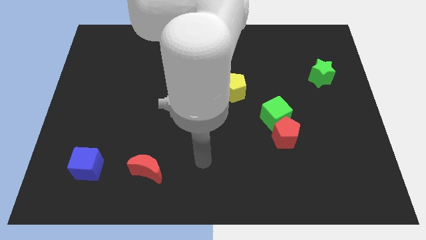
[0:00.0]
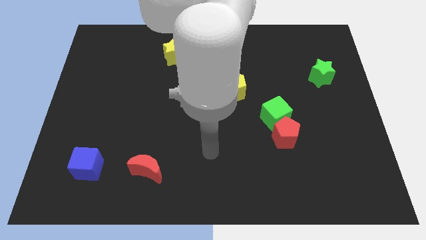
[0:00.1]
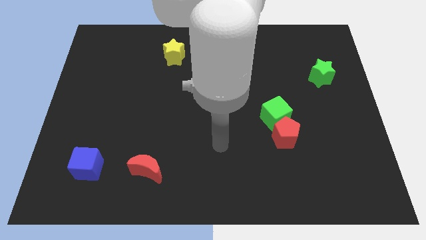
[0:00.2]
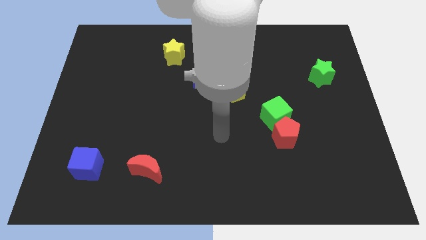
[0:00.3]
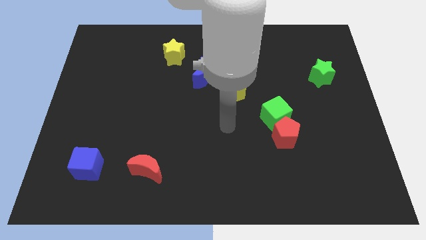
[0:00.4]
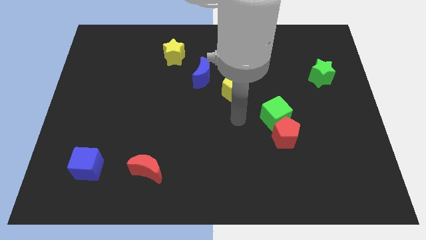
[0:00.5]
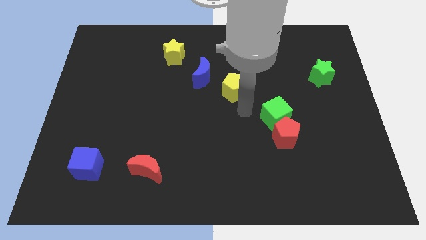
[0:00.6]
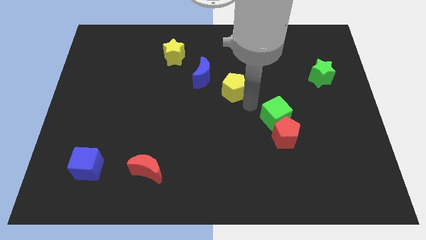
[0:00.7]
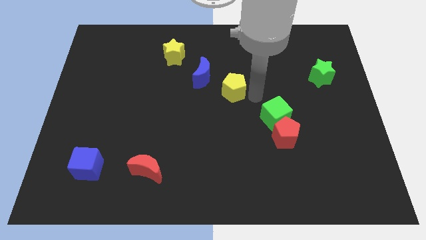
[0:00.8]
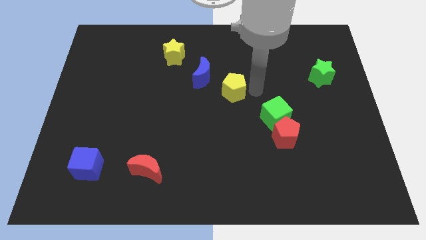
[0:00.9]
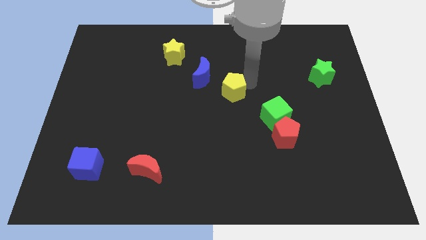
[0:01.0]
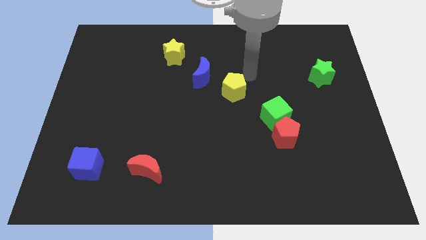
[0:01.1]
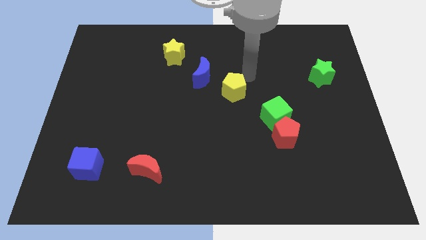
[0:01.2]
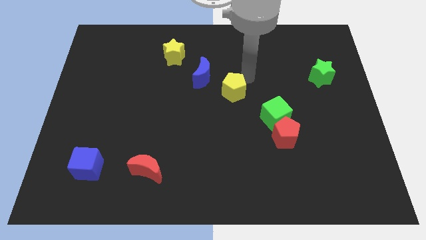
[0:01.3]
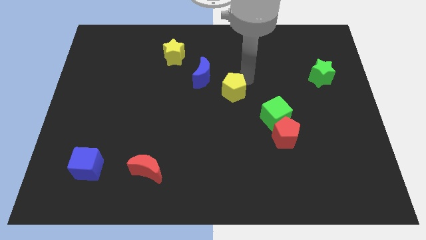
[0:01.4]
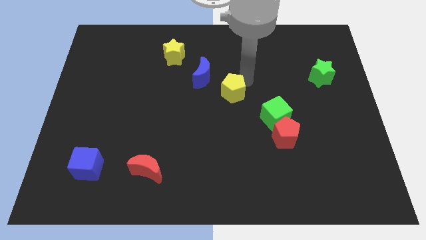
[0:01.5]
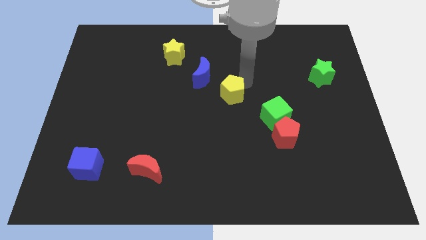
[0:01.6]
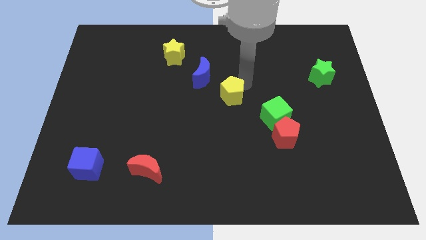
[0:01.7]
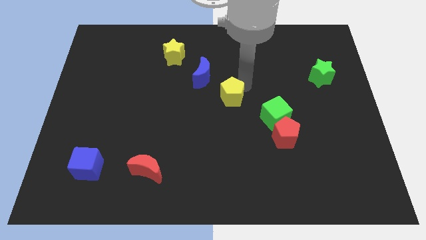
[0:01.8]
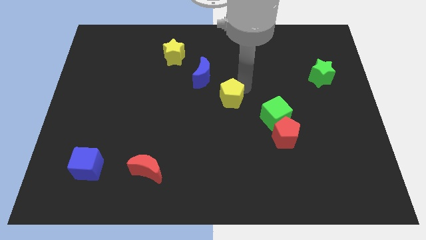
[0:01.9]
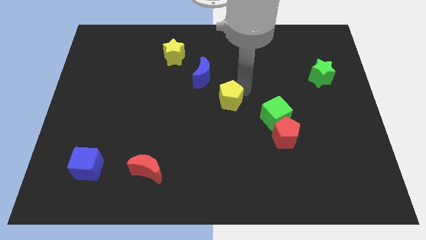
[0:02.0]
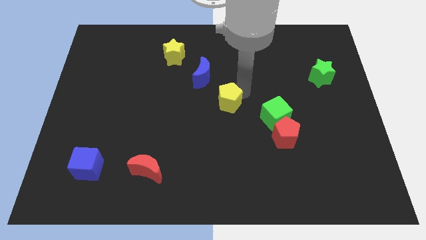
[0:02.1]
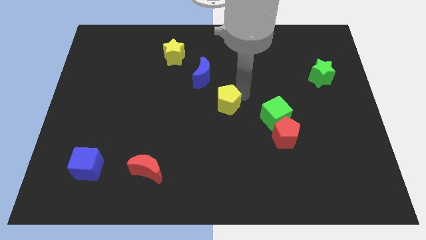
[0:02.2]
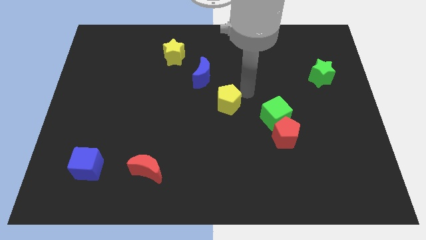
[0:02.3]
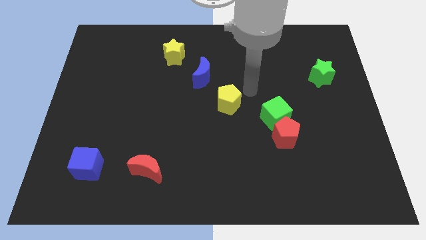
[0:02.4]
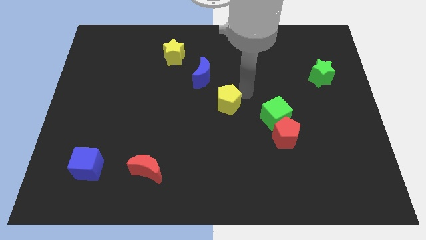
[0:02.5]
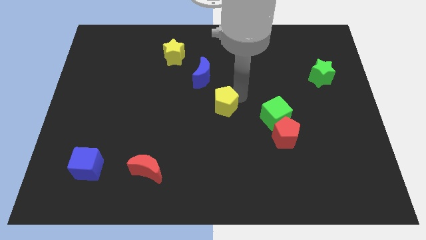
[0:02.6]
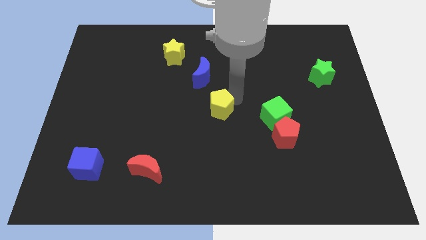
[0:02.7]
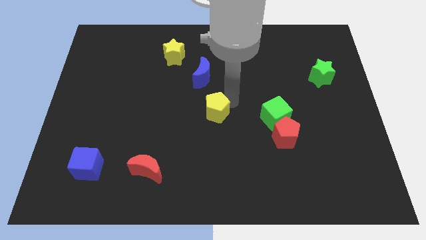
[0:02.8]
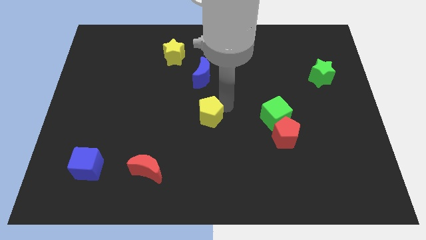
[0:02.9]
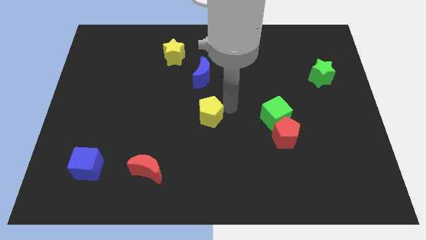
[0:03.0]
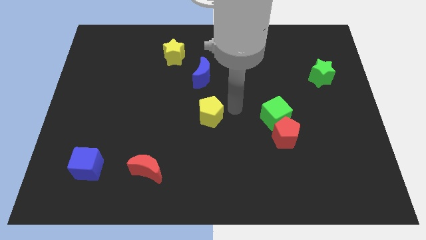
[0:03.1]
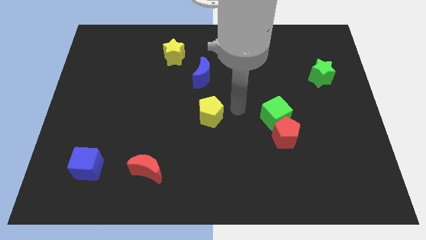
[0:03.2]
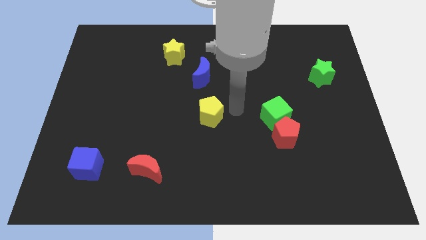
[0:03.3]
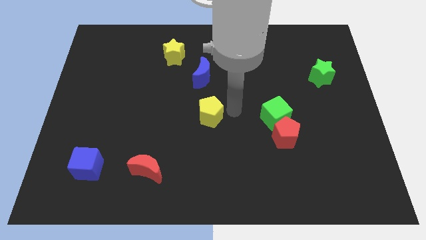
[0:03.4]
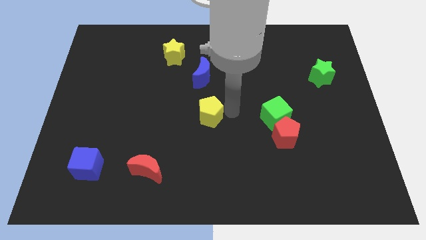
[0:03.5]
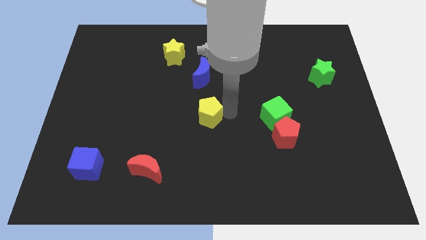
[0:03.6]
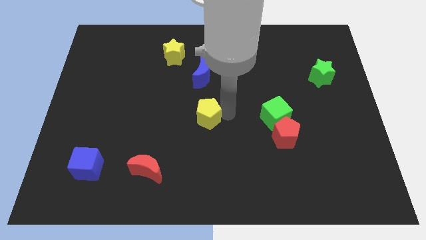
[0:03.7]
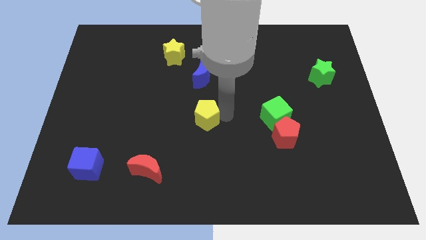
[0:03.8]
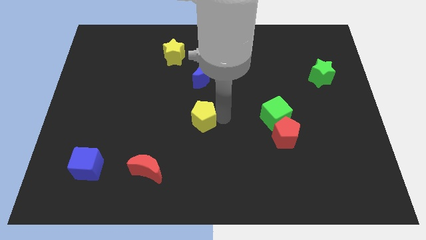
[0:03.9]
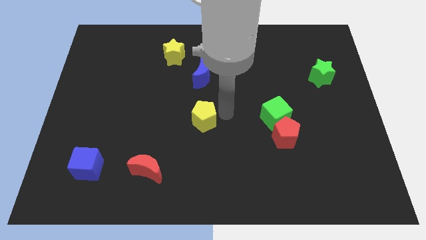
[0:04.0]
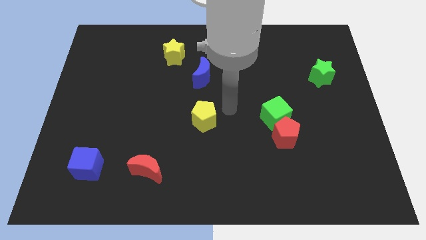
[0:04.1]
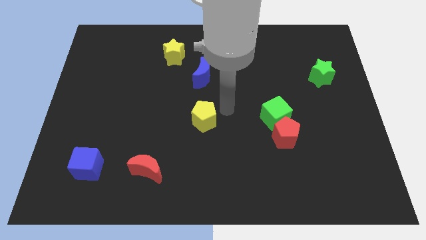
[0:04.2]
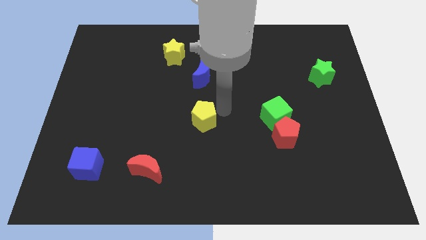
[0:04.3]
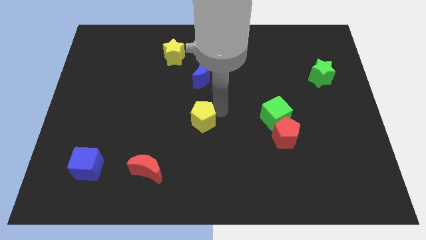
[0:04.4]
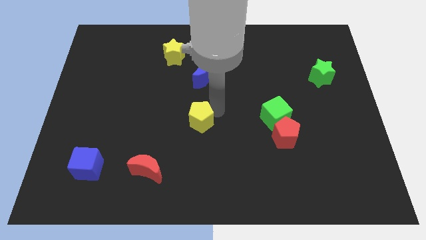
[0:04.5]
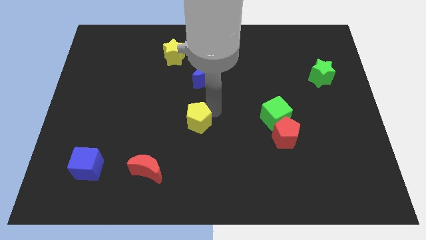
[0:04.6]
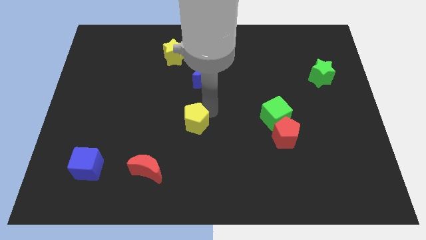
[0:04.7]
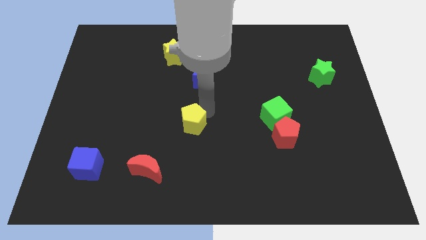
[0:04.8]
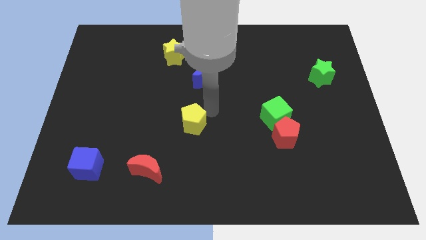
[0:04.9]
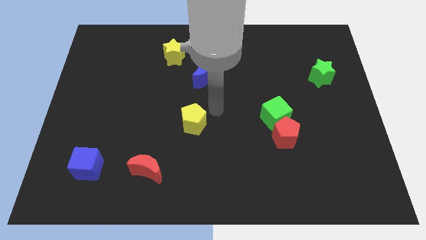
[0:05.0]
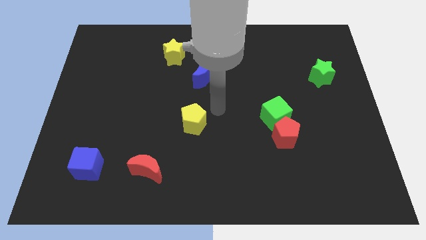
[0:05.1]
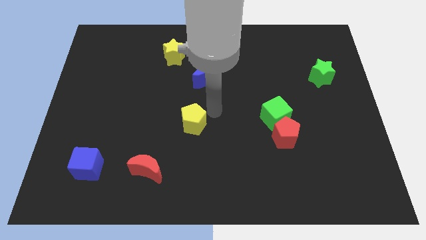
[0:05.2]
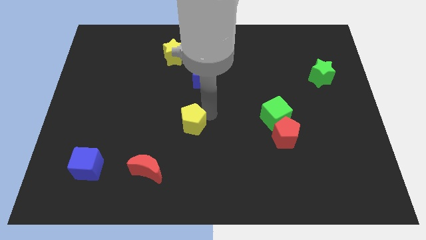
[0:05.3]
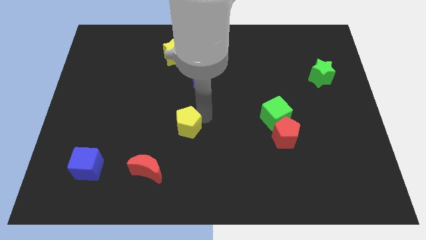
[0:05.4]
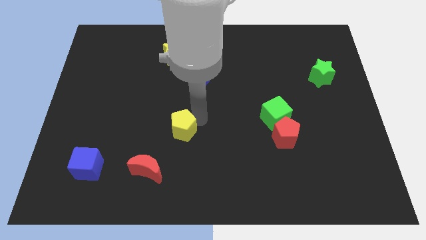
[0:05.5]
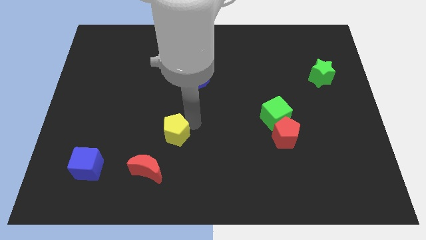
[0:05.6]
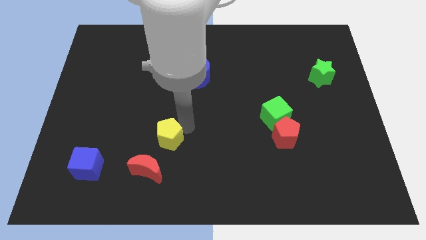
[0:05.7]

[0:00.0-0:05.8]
slide the yellow pentagon downwards and to the left diagonally

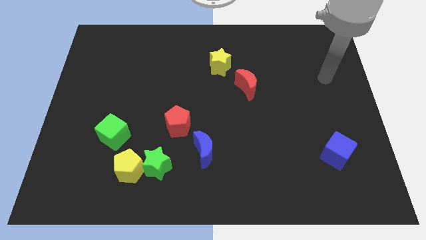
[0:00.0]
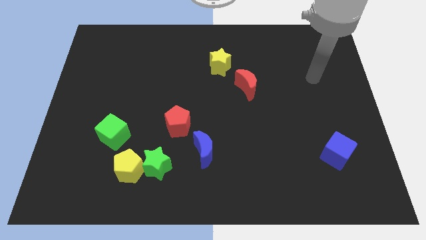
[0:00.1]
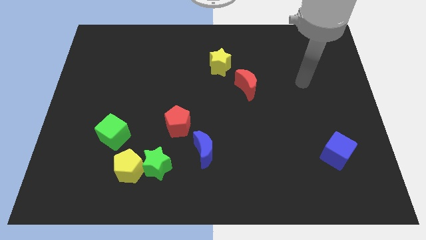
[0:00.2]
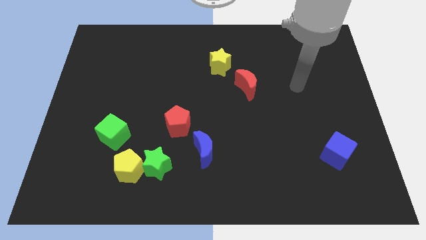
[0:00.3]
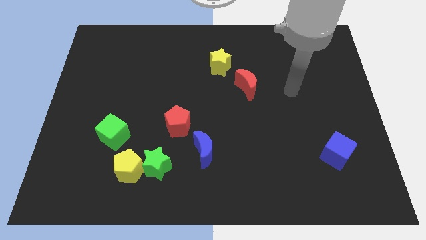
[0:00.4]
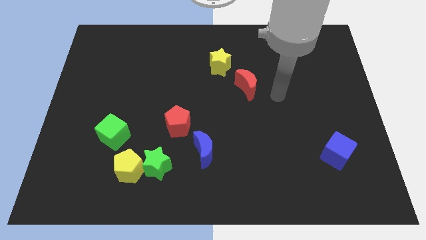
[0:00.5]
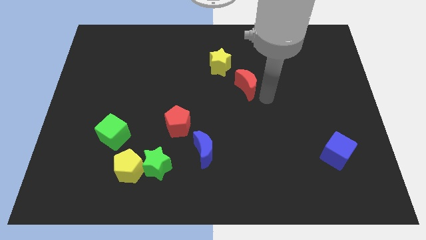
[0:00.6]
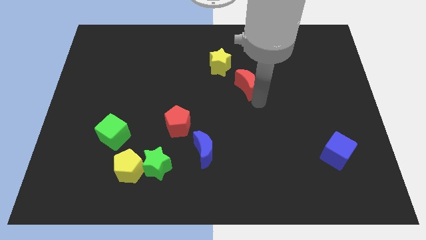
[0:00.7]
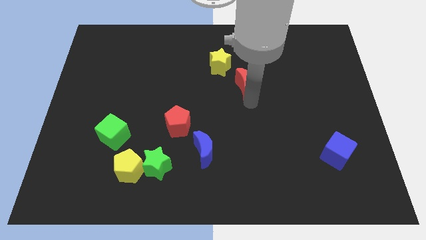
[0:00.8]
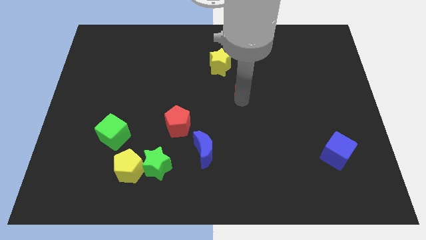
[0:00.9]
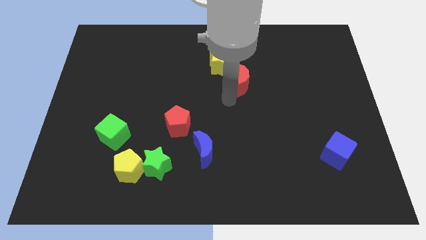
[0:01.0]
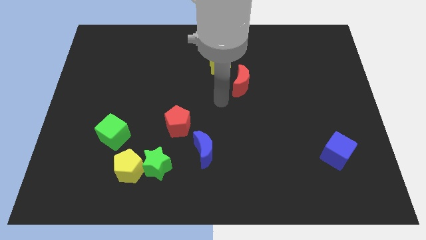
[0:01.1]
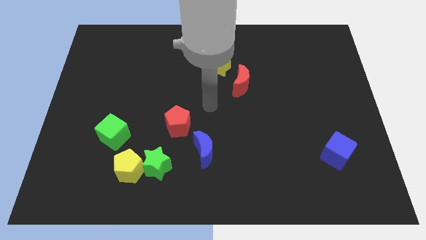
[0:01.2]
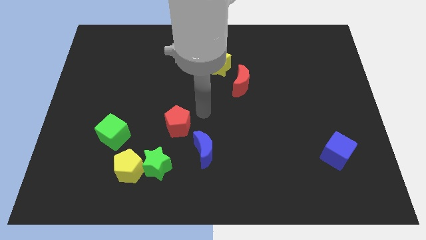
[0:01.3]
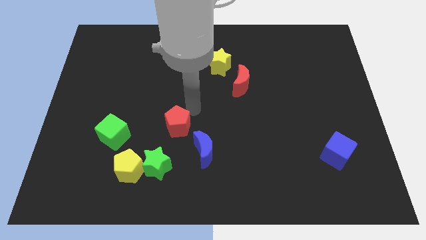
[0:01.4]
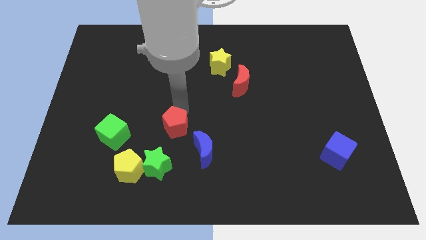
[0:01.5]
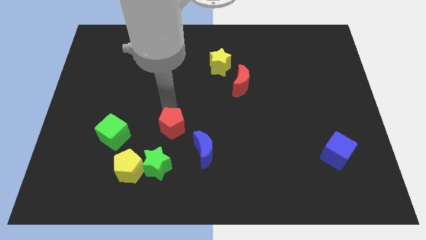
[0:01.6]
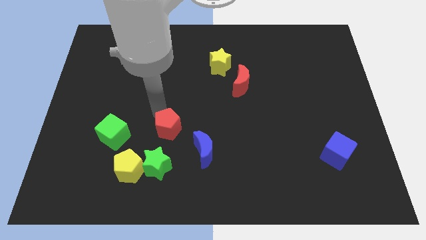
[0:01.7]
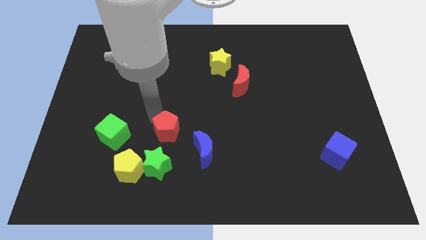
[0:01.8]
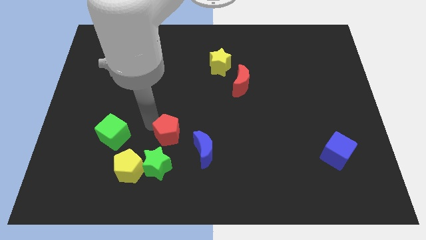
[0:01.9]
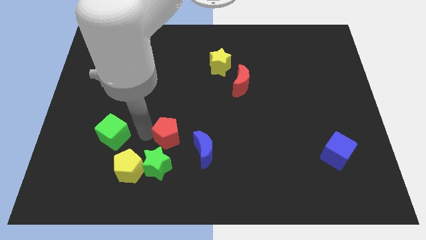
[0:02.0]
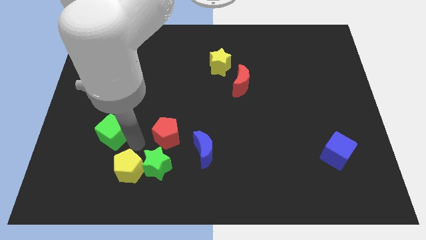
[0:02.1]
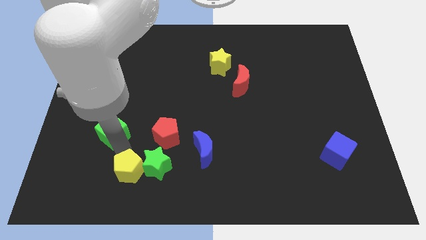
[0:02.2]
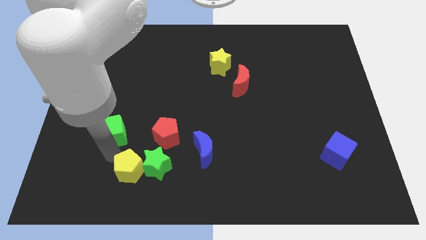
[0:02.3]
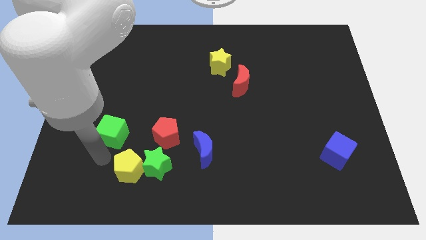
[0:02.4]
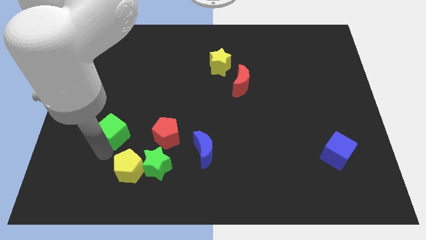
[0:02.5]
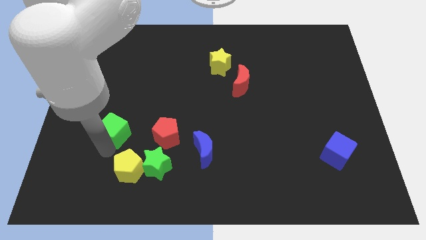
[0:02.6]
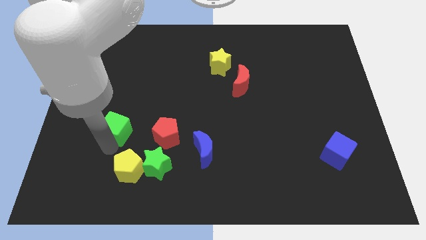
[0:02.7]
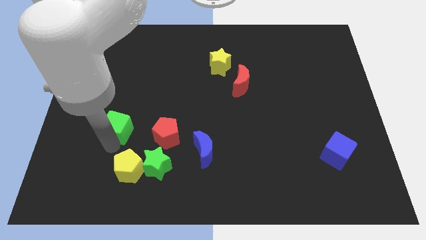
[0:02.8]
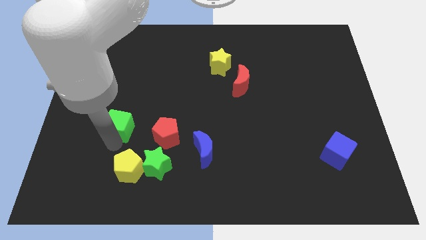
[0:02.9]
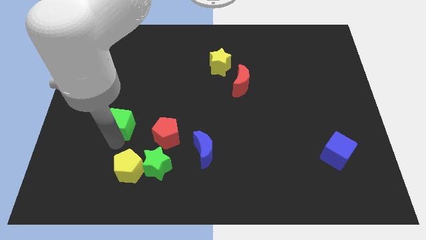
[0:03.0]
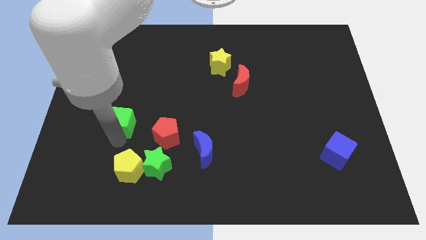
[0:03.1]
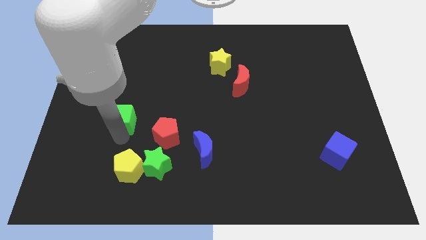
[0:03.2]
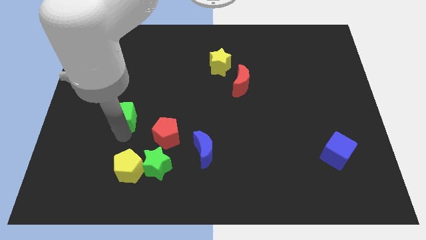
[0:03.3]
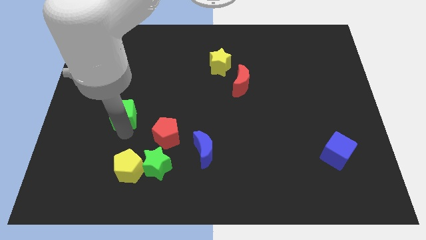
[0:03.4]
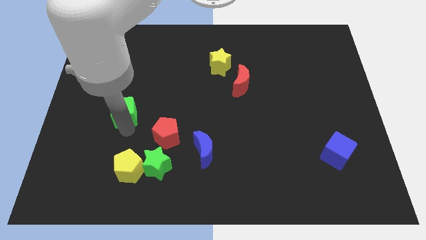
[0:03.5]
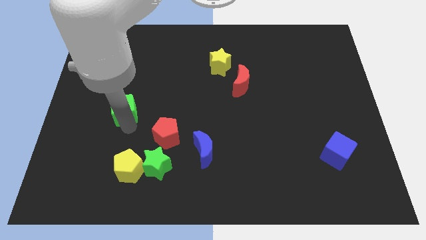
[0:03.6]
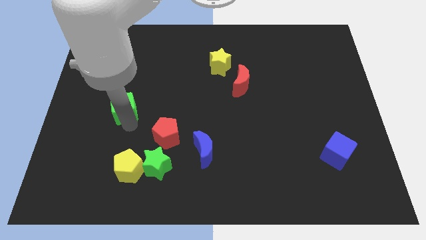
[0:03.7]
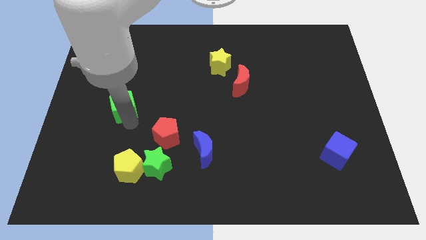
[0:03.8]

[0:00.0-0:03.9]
slightly move the green cube up
